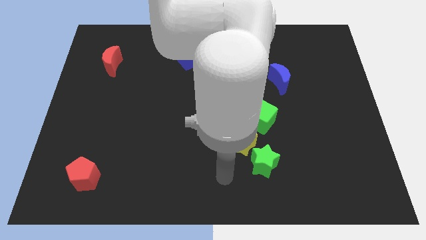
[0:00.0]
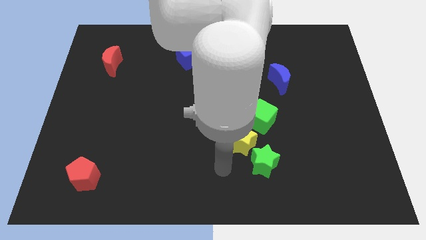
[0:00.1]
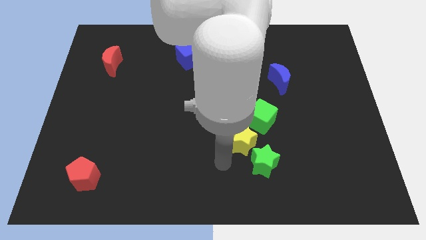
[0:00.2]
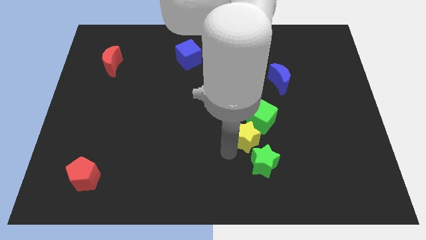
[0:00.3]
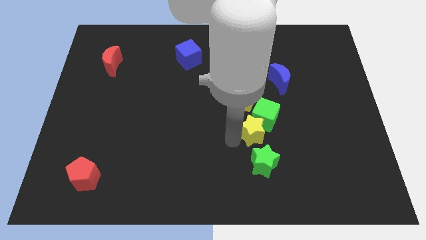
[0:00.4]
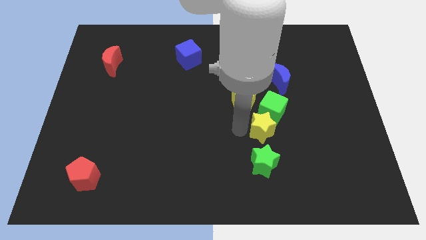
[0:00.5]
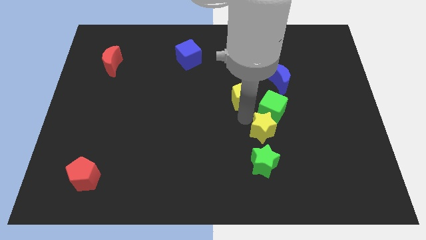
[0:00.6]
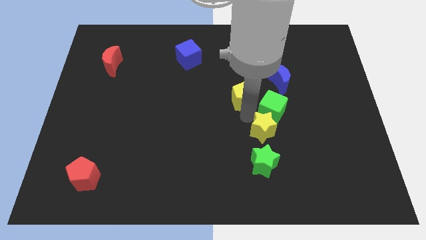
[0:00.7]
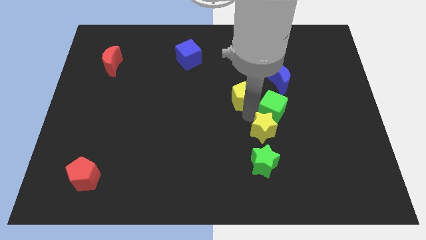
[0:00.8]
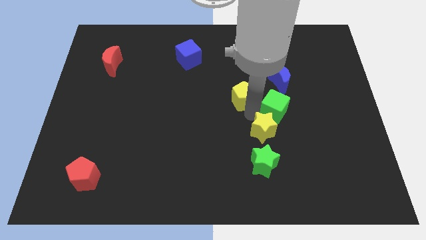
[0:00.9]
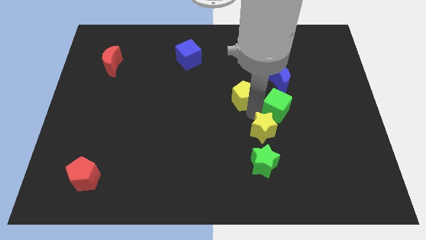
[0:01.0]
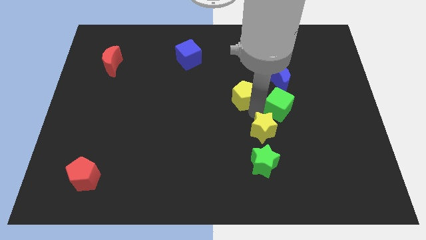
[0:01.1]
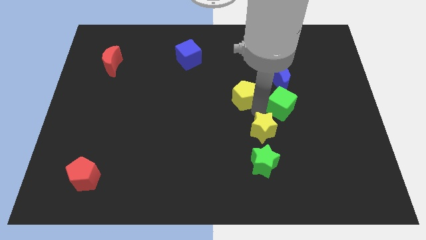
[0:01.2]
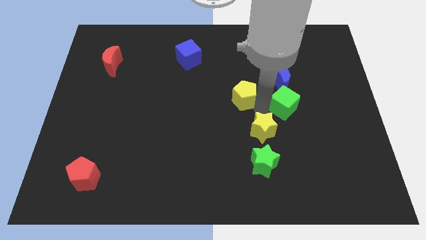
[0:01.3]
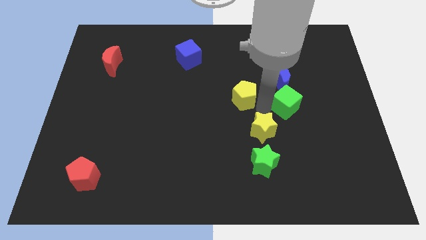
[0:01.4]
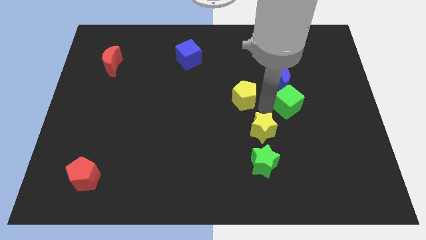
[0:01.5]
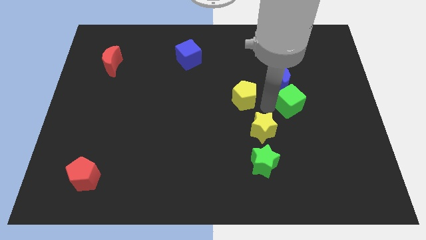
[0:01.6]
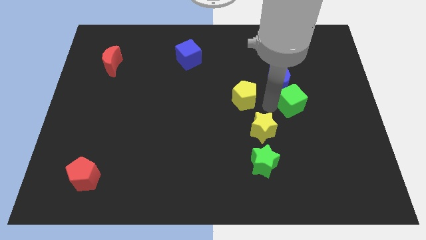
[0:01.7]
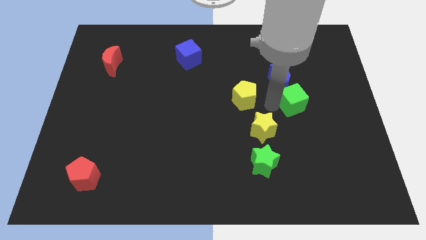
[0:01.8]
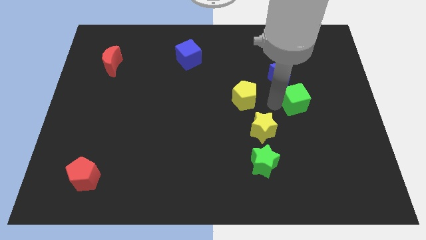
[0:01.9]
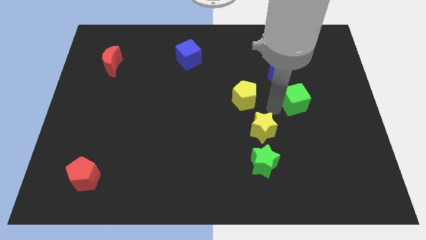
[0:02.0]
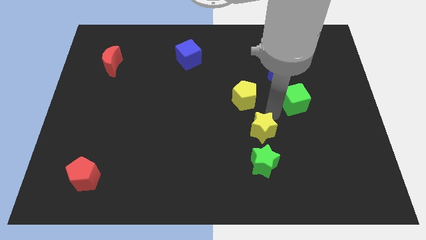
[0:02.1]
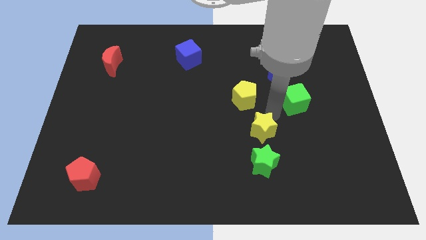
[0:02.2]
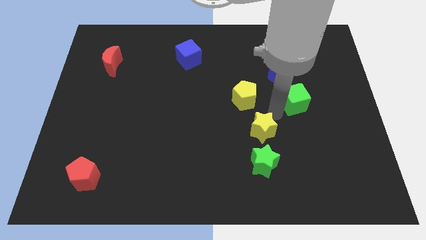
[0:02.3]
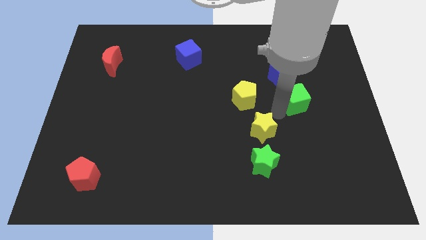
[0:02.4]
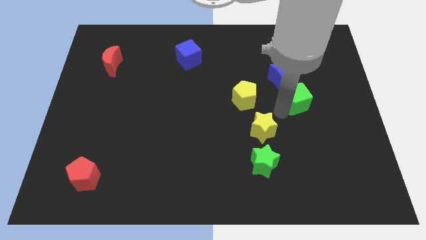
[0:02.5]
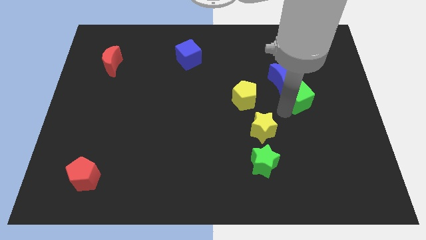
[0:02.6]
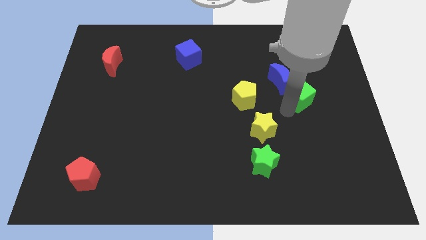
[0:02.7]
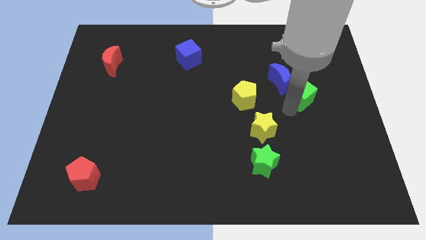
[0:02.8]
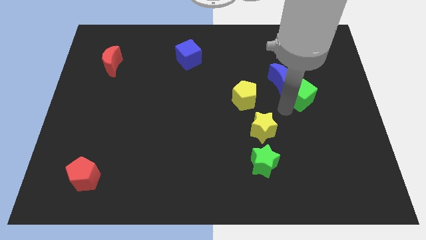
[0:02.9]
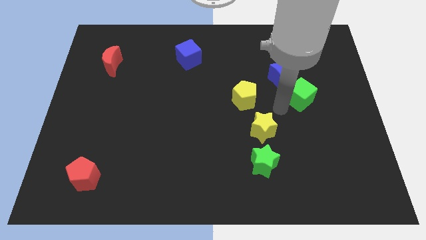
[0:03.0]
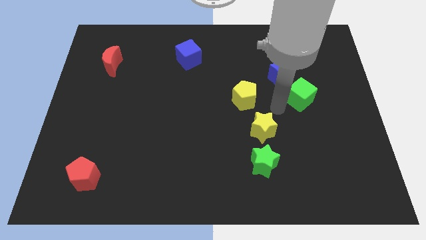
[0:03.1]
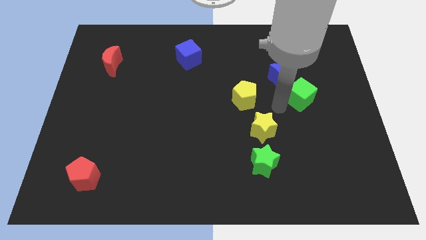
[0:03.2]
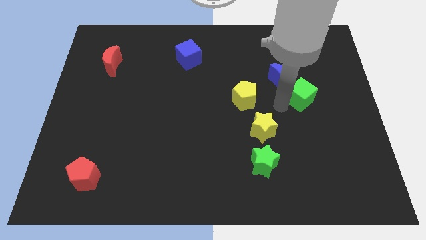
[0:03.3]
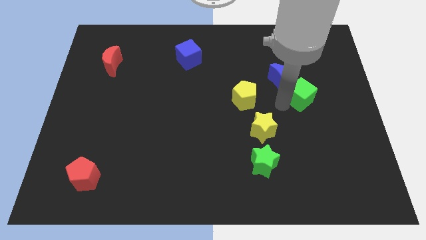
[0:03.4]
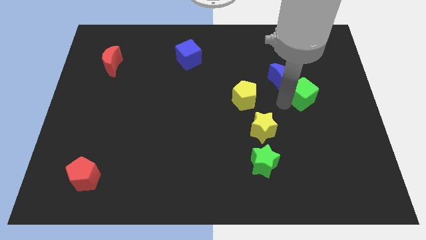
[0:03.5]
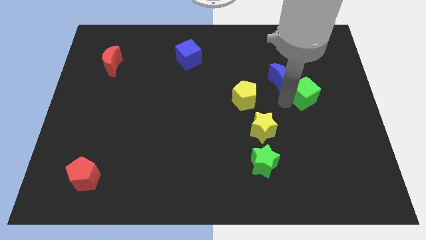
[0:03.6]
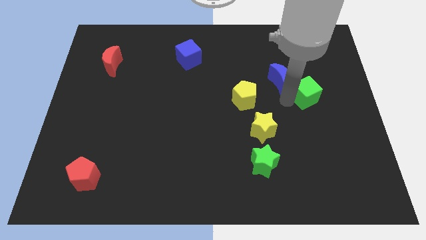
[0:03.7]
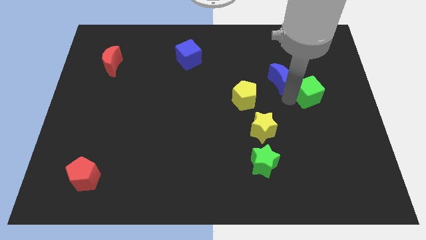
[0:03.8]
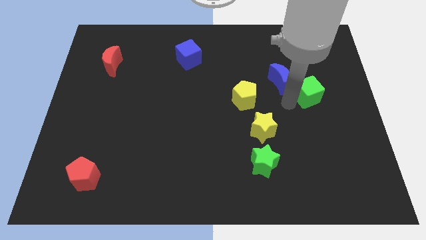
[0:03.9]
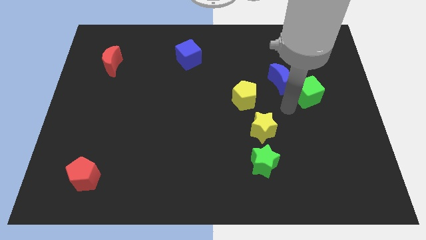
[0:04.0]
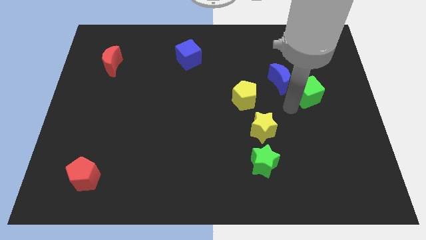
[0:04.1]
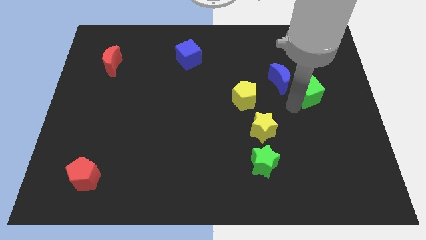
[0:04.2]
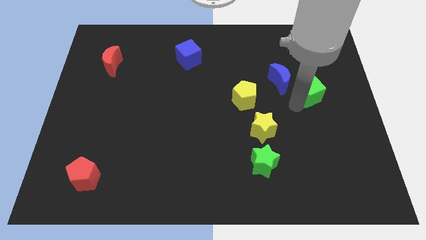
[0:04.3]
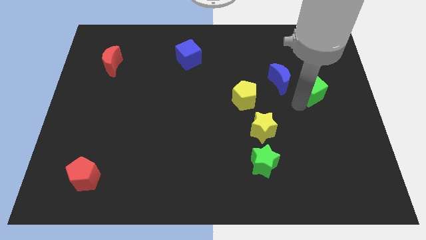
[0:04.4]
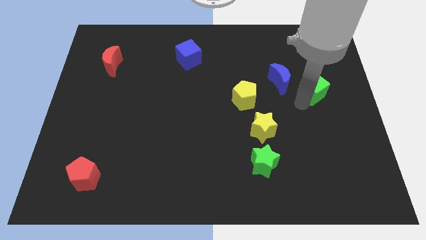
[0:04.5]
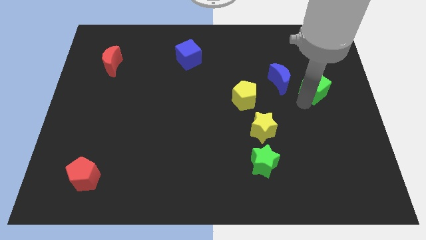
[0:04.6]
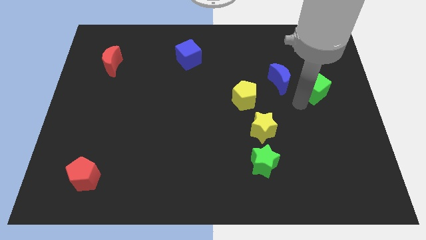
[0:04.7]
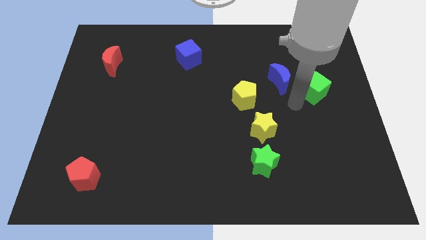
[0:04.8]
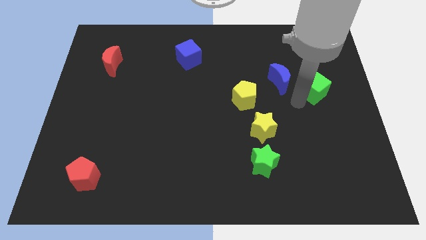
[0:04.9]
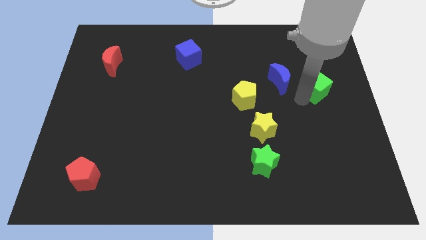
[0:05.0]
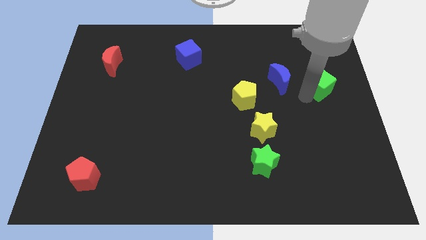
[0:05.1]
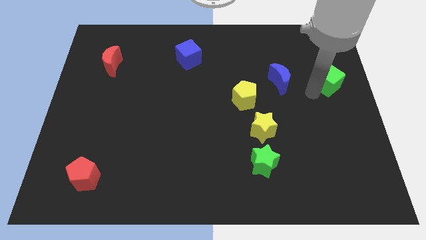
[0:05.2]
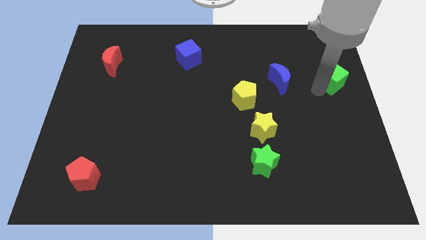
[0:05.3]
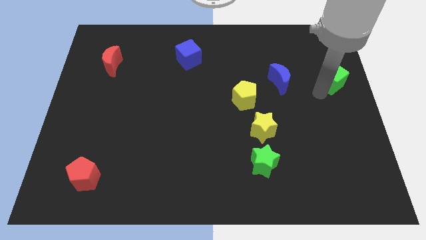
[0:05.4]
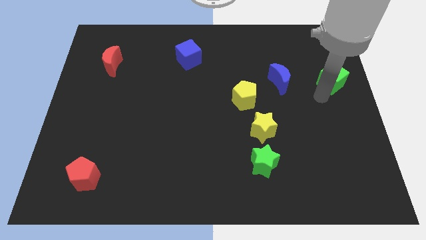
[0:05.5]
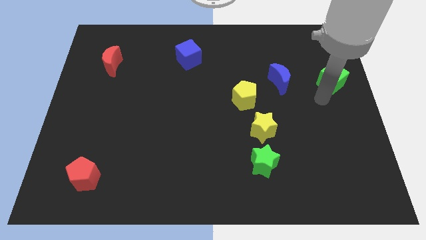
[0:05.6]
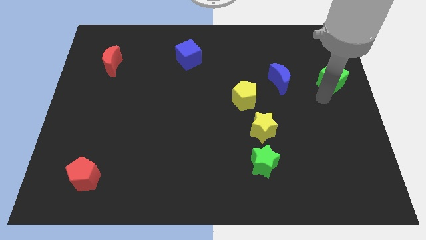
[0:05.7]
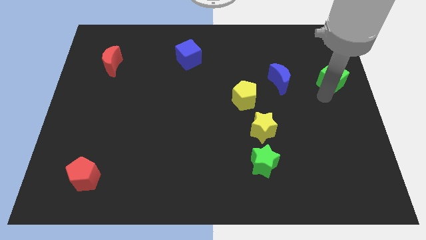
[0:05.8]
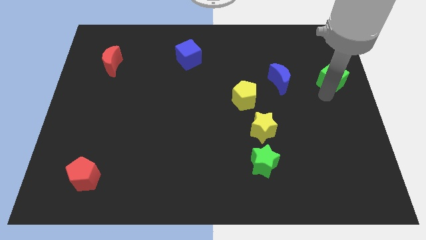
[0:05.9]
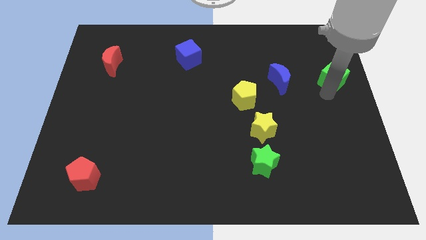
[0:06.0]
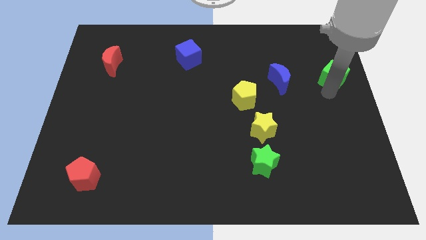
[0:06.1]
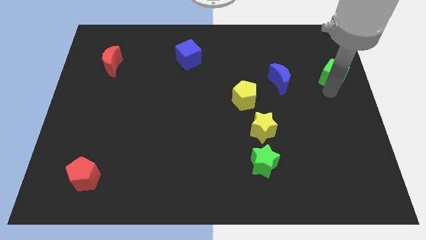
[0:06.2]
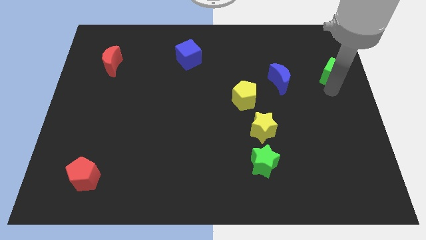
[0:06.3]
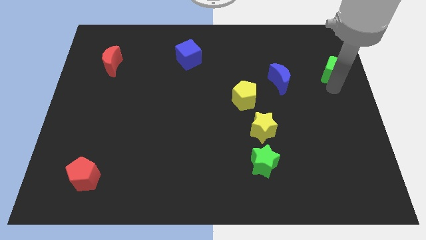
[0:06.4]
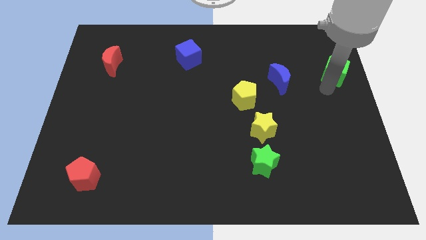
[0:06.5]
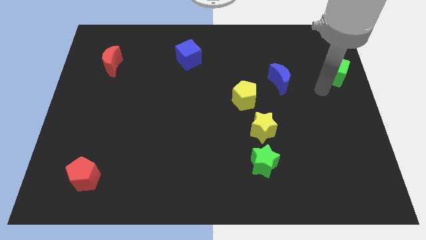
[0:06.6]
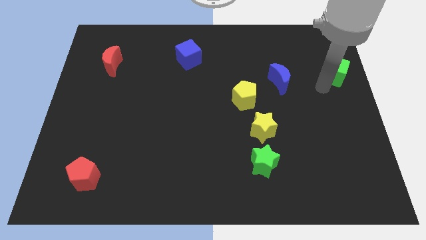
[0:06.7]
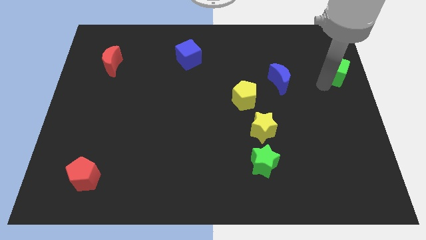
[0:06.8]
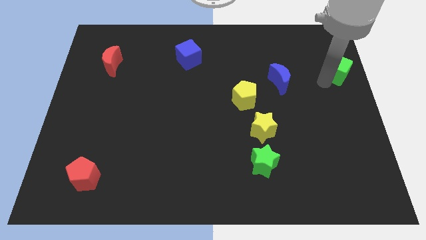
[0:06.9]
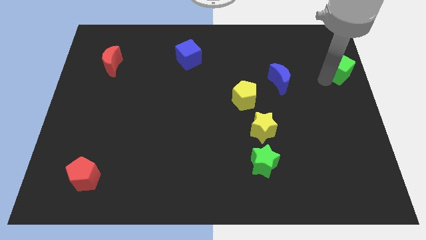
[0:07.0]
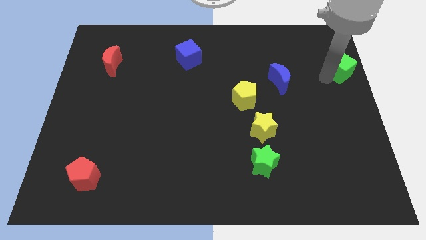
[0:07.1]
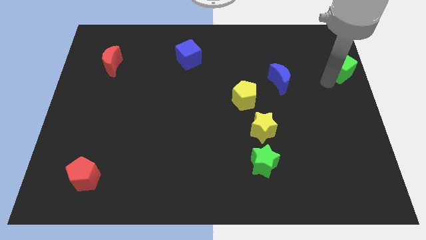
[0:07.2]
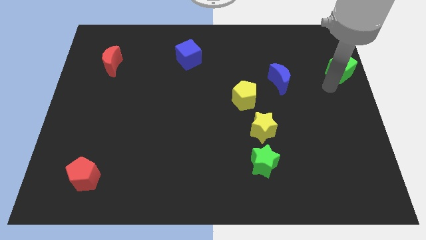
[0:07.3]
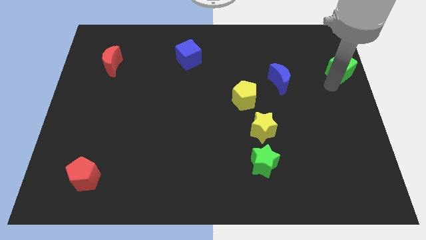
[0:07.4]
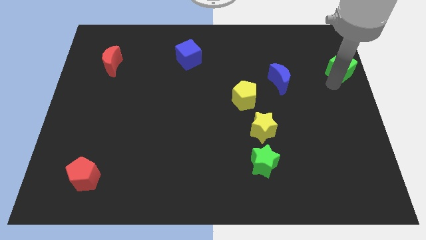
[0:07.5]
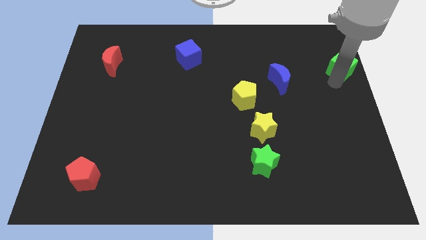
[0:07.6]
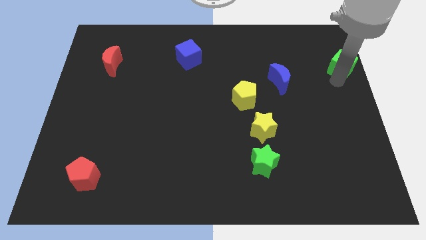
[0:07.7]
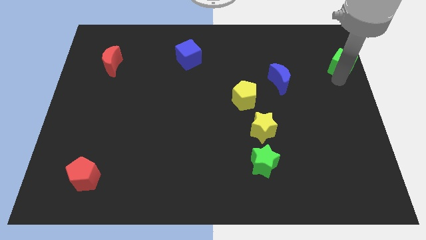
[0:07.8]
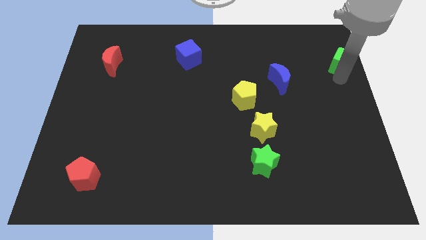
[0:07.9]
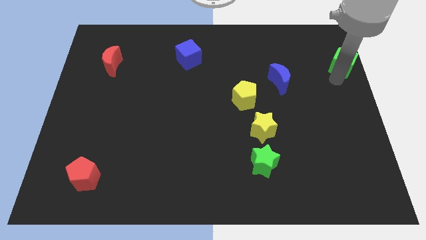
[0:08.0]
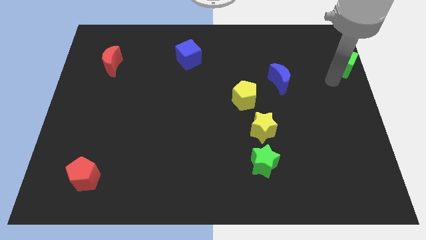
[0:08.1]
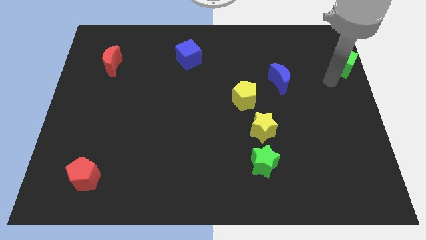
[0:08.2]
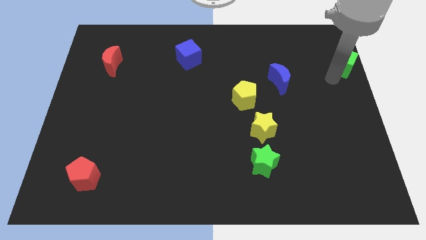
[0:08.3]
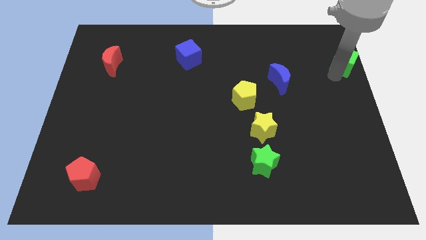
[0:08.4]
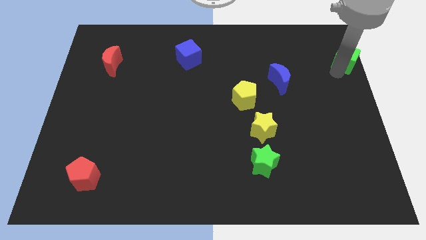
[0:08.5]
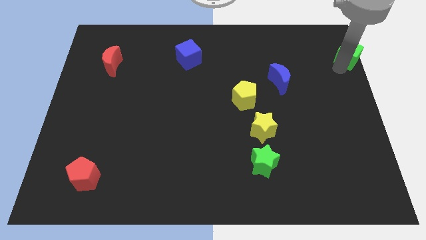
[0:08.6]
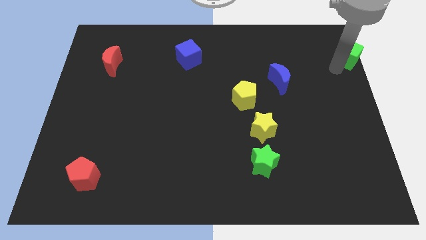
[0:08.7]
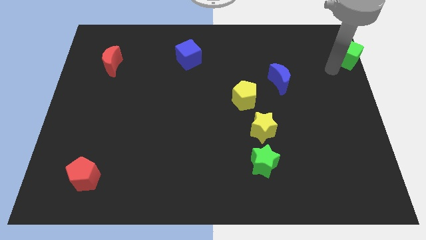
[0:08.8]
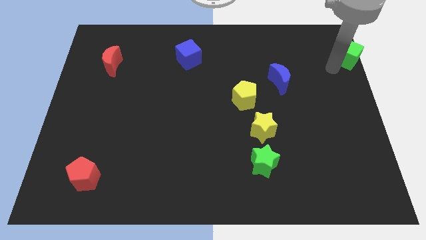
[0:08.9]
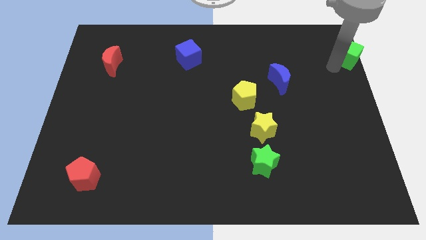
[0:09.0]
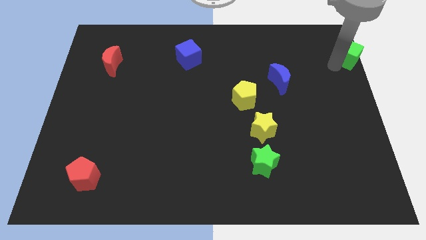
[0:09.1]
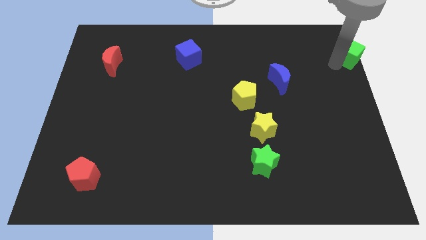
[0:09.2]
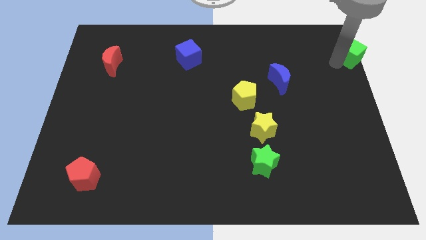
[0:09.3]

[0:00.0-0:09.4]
slide the green cube to the top right
